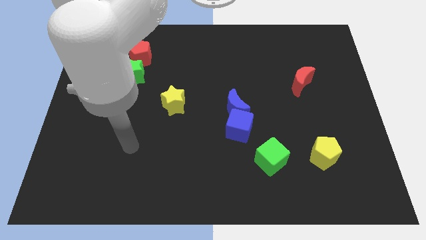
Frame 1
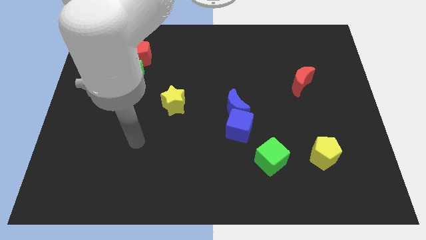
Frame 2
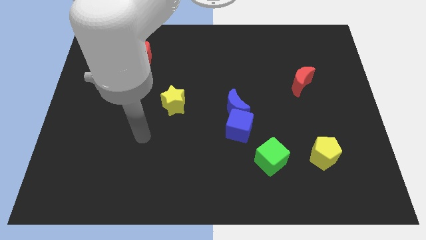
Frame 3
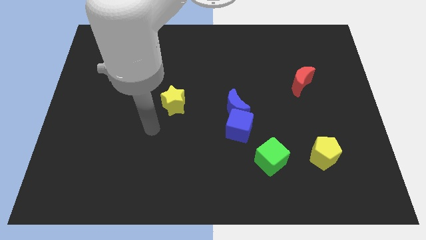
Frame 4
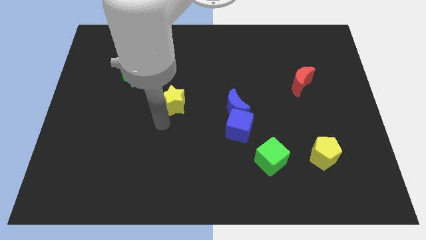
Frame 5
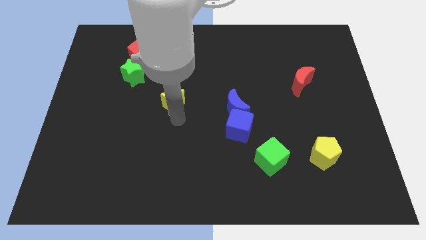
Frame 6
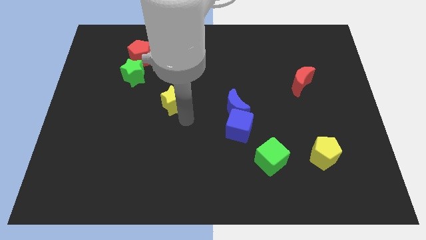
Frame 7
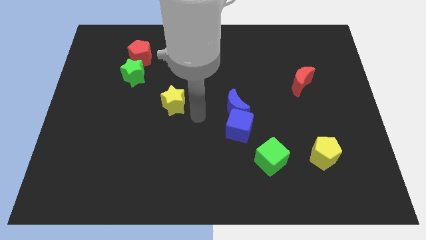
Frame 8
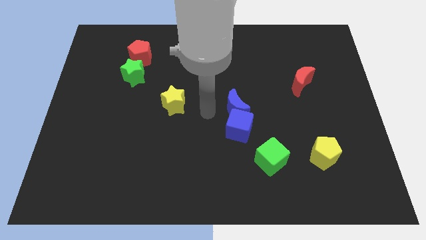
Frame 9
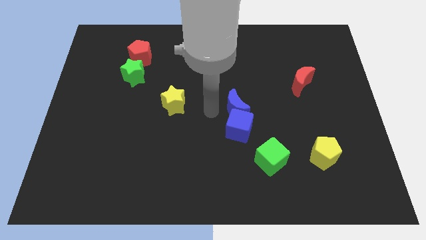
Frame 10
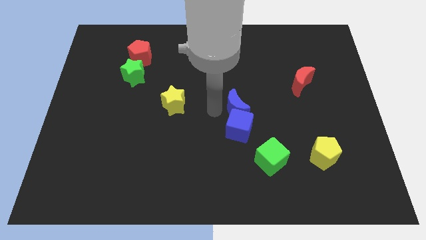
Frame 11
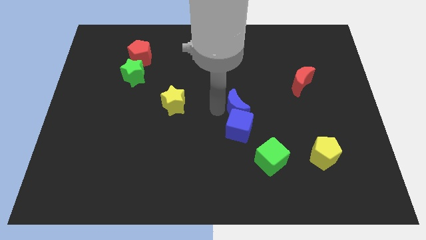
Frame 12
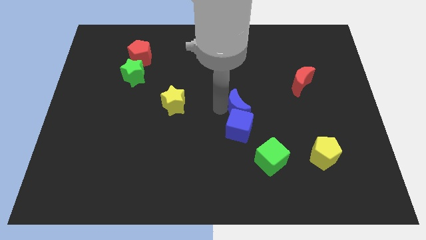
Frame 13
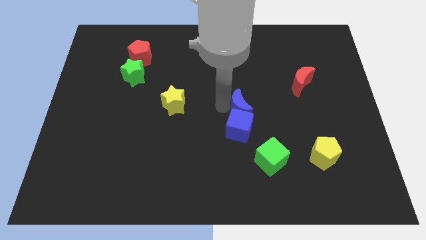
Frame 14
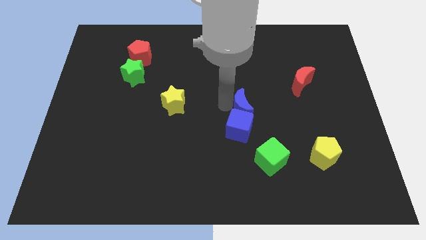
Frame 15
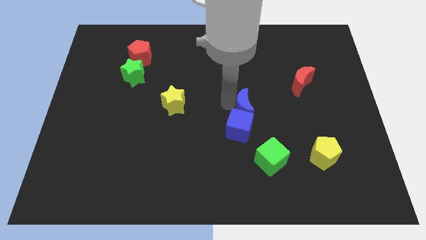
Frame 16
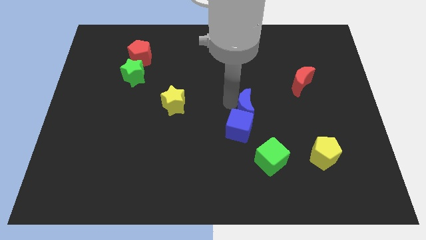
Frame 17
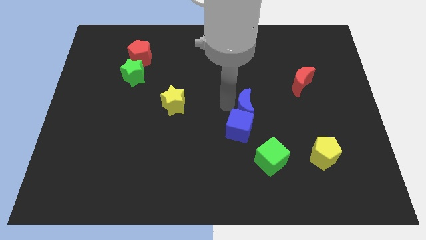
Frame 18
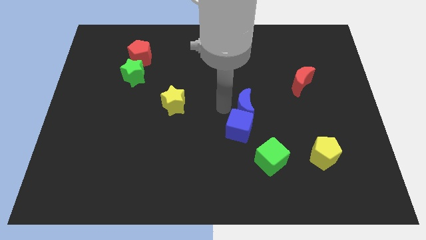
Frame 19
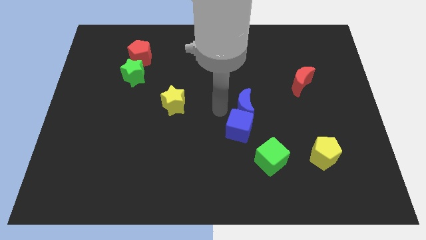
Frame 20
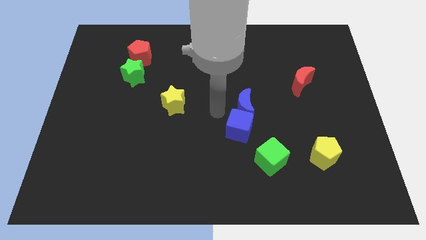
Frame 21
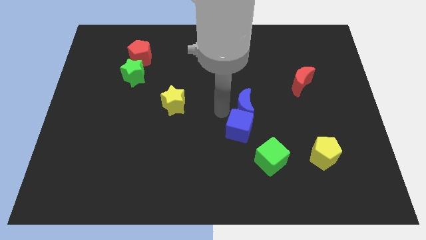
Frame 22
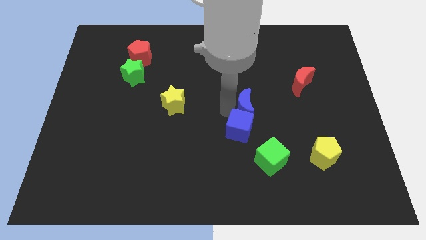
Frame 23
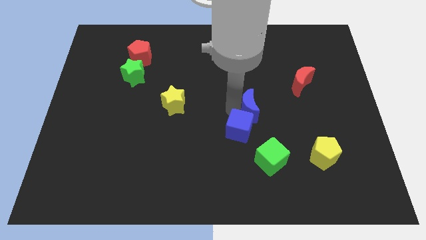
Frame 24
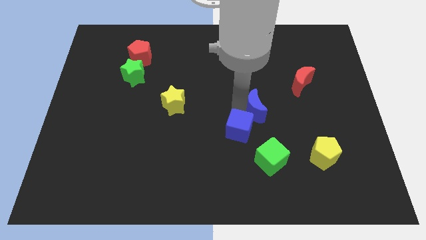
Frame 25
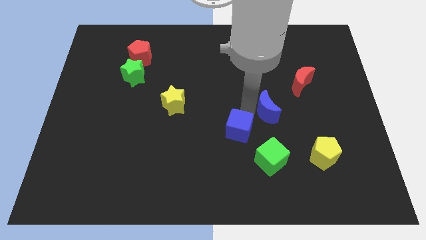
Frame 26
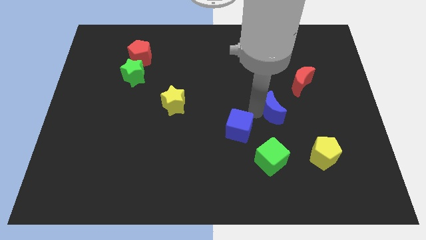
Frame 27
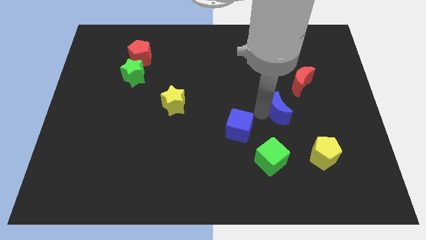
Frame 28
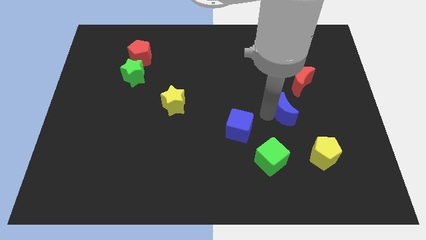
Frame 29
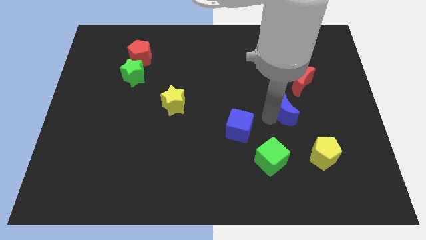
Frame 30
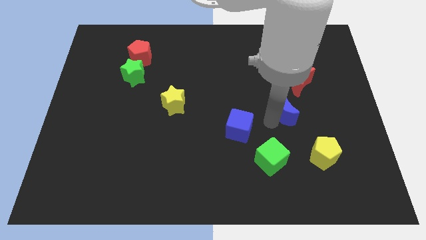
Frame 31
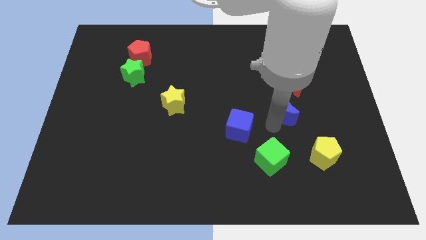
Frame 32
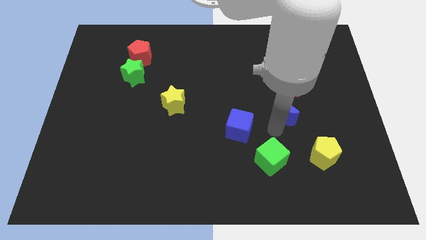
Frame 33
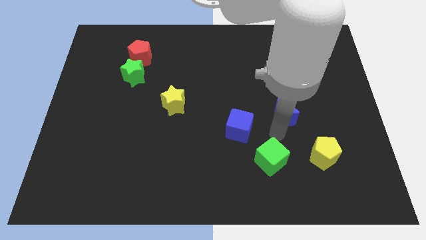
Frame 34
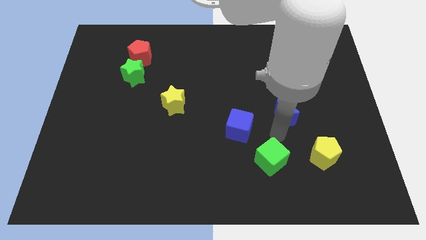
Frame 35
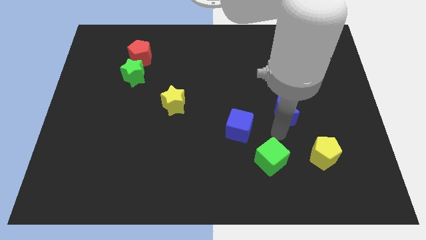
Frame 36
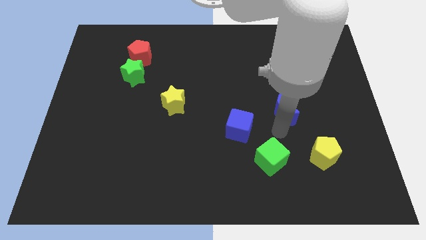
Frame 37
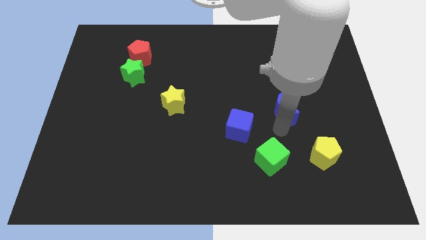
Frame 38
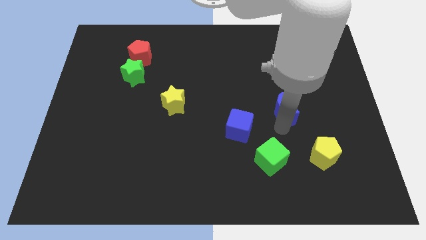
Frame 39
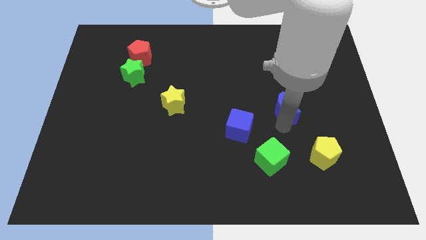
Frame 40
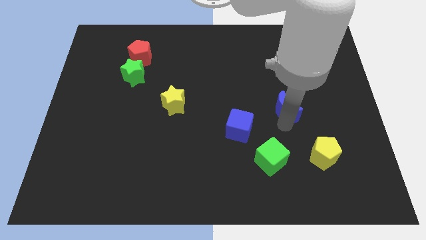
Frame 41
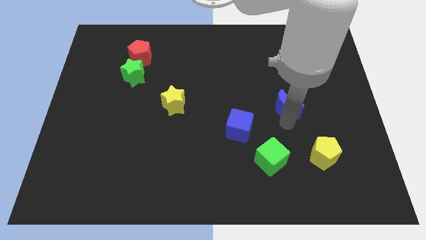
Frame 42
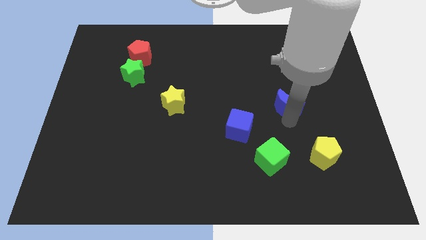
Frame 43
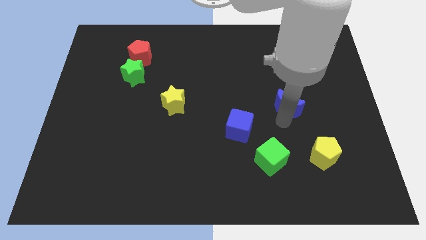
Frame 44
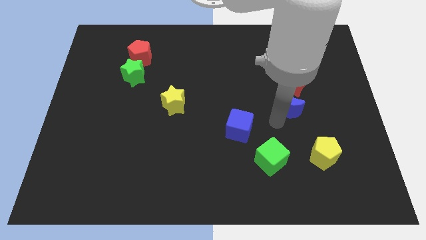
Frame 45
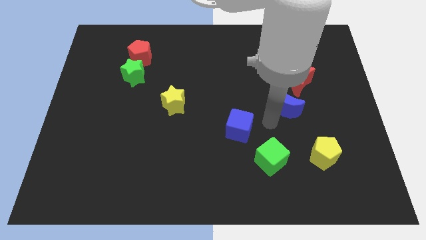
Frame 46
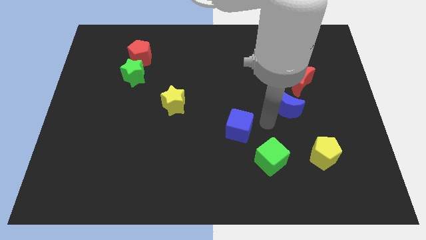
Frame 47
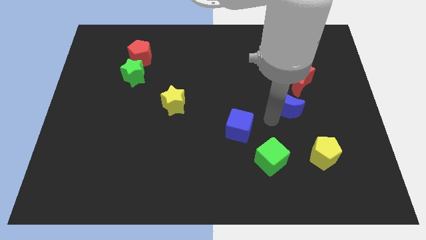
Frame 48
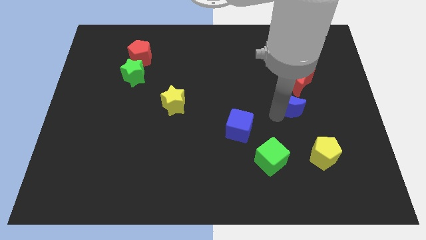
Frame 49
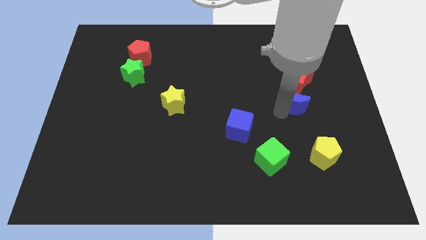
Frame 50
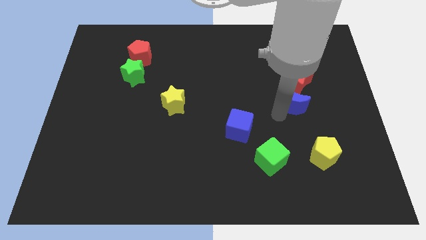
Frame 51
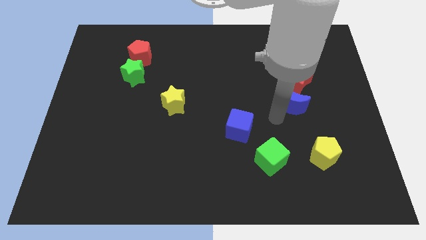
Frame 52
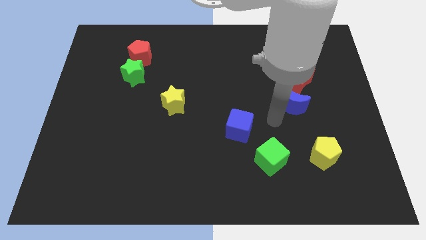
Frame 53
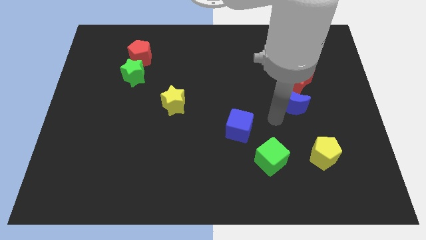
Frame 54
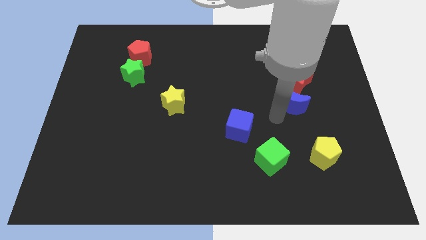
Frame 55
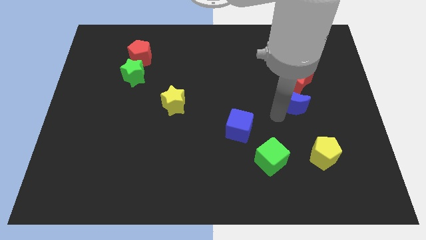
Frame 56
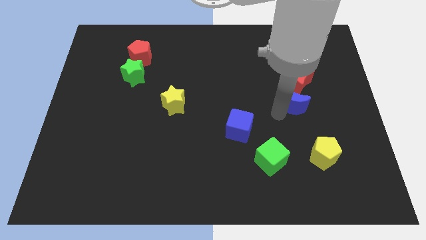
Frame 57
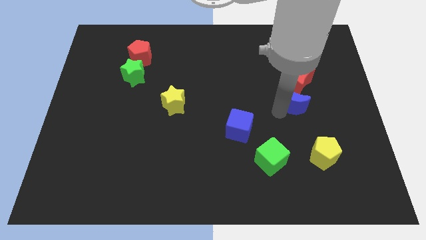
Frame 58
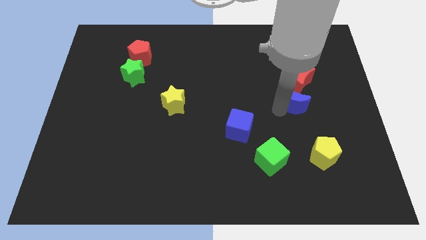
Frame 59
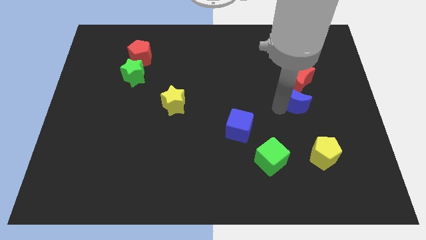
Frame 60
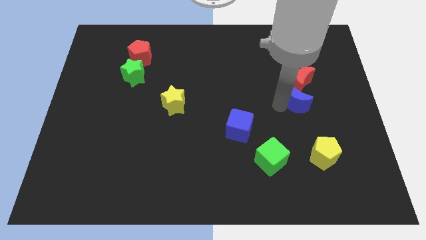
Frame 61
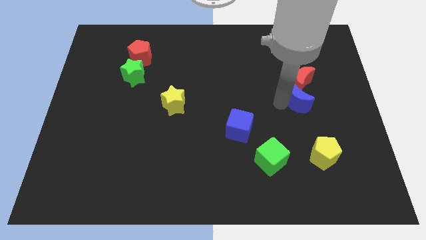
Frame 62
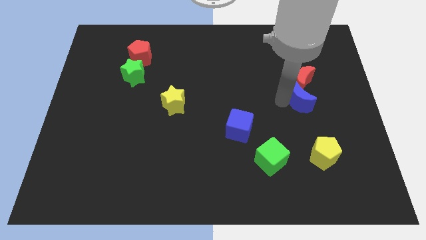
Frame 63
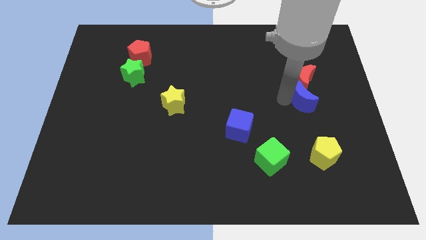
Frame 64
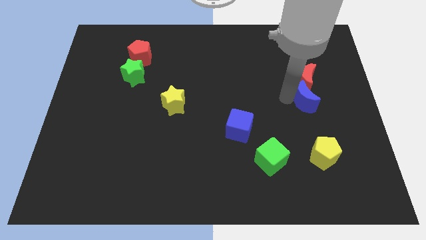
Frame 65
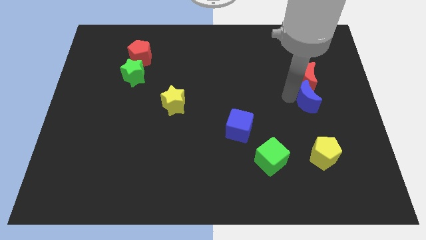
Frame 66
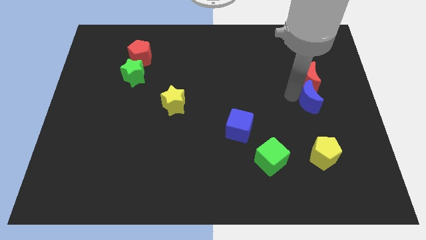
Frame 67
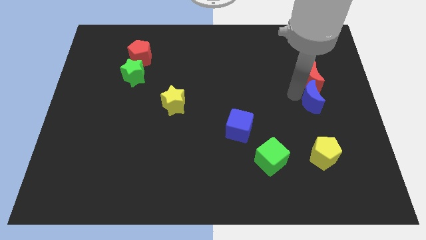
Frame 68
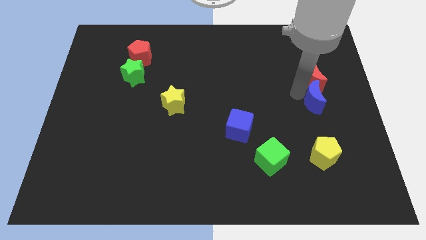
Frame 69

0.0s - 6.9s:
move the blue moon to the bottom right of the red moon
